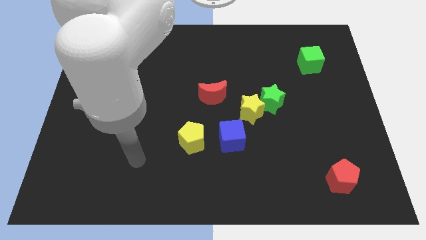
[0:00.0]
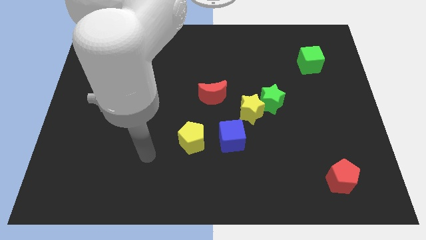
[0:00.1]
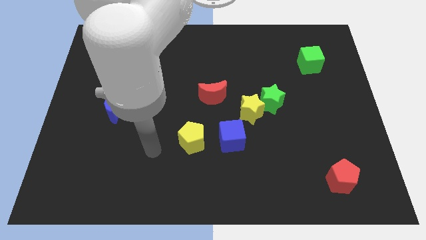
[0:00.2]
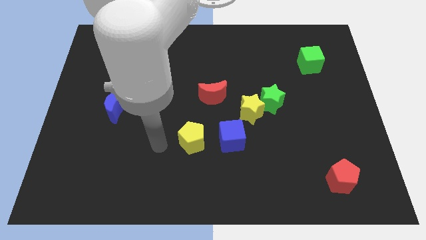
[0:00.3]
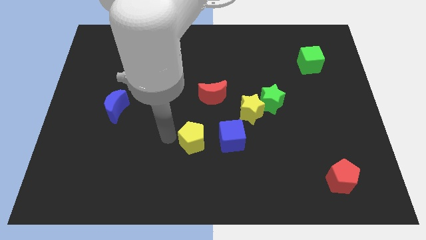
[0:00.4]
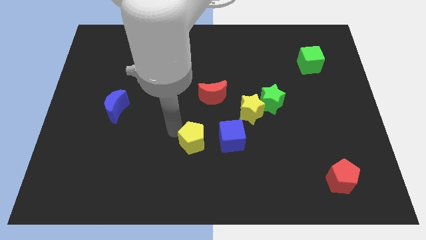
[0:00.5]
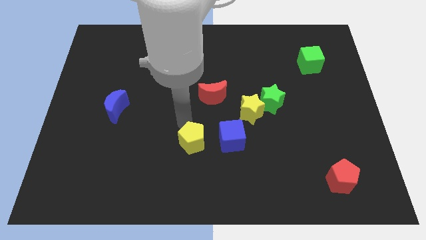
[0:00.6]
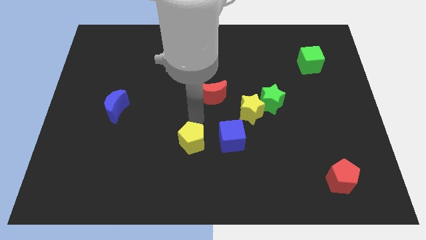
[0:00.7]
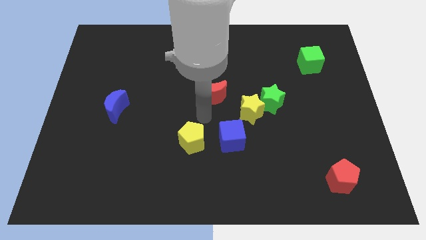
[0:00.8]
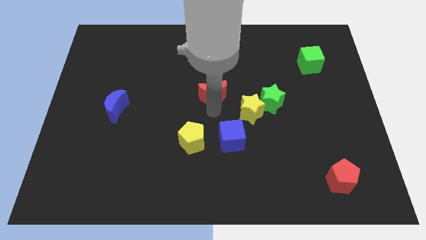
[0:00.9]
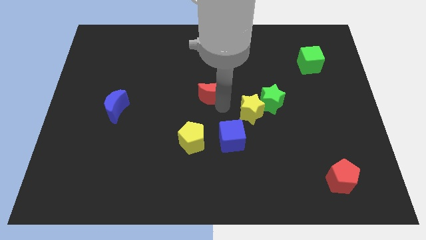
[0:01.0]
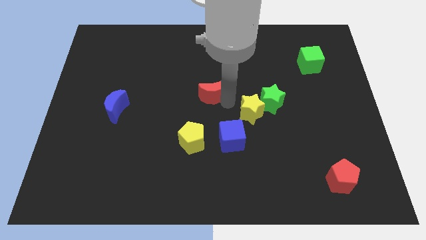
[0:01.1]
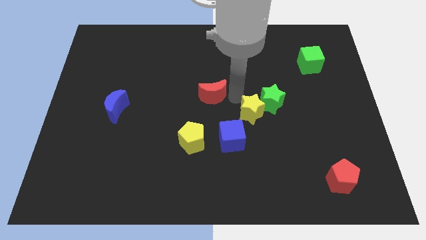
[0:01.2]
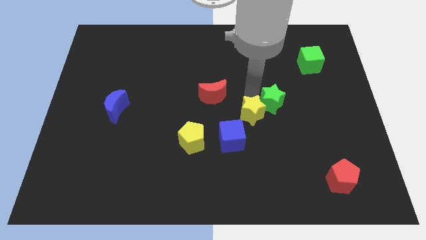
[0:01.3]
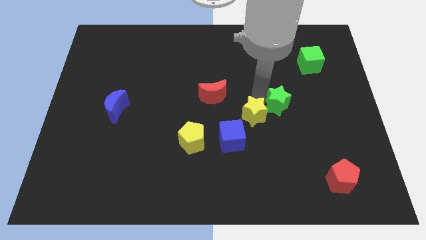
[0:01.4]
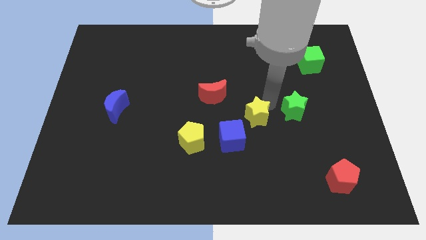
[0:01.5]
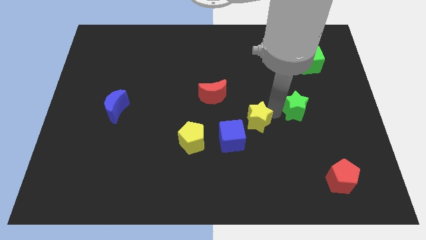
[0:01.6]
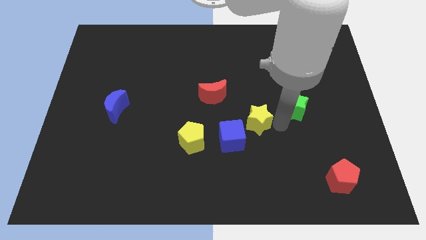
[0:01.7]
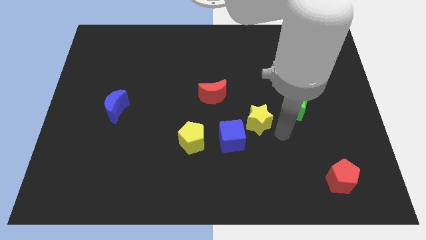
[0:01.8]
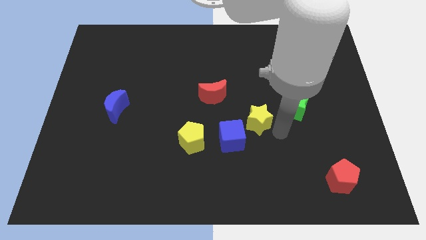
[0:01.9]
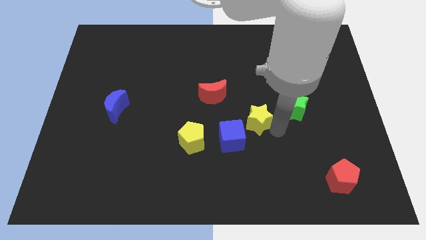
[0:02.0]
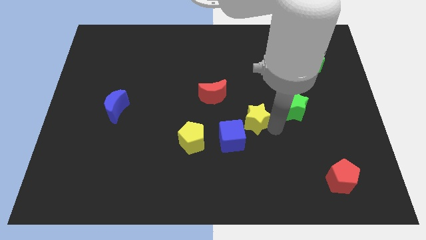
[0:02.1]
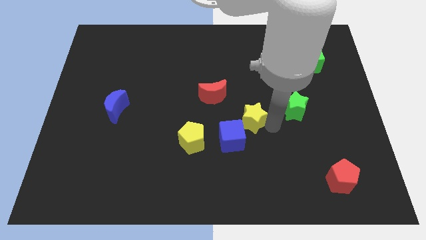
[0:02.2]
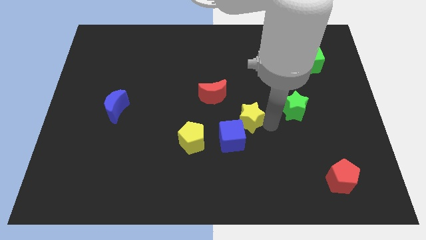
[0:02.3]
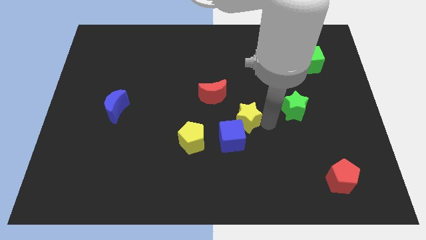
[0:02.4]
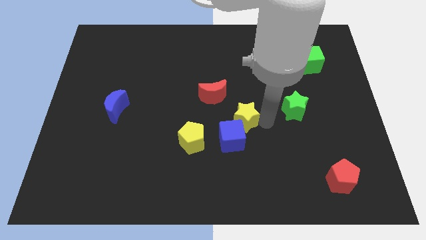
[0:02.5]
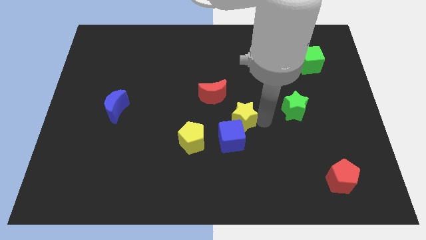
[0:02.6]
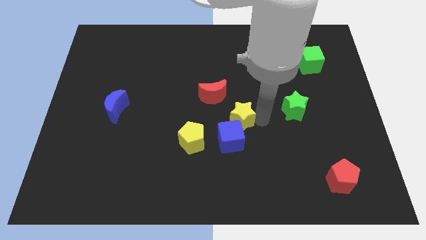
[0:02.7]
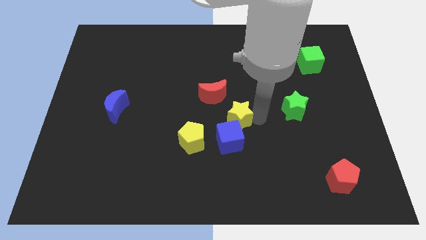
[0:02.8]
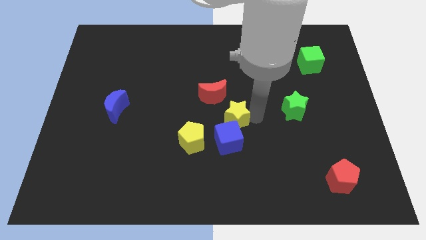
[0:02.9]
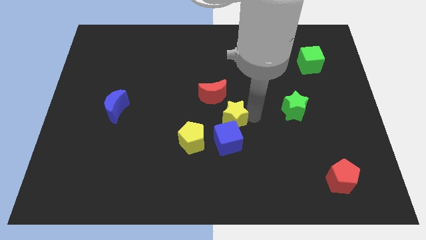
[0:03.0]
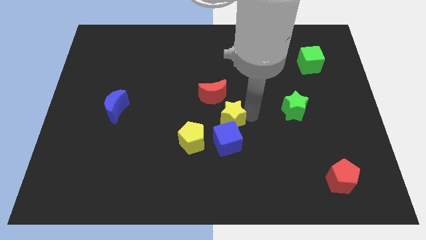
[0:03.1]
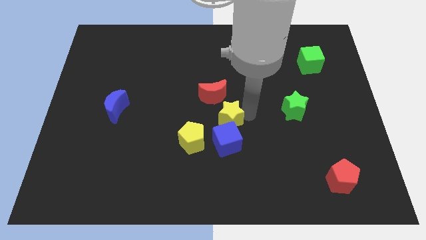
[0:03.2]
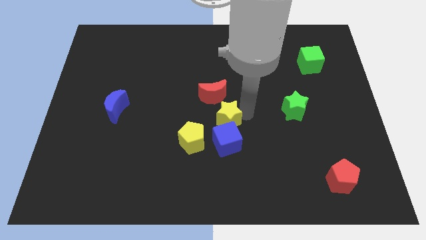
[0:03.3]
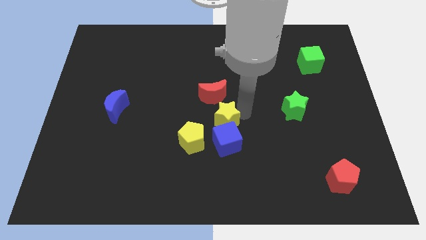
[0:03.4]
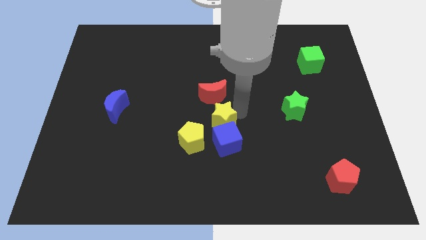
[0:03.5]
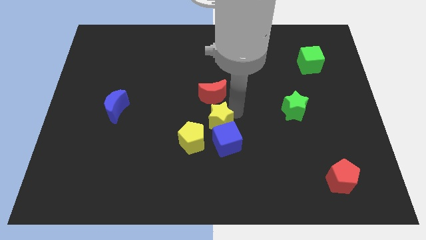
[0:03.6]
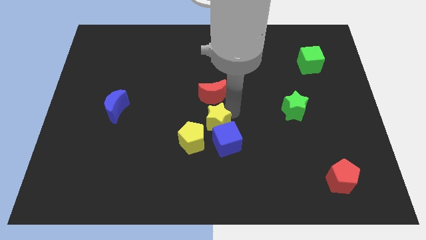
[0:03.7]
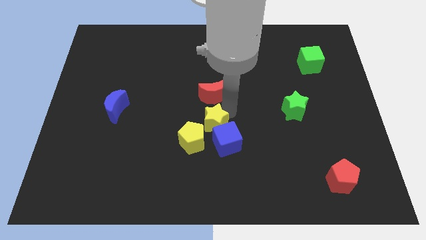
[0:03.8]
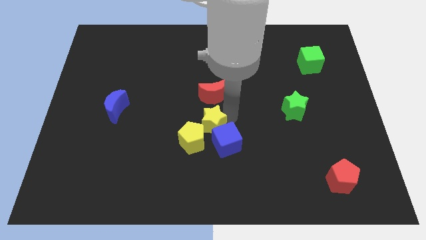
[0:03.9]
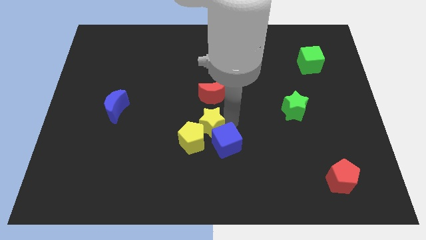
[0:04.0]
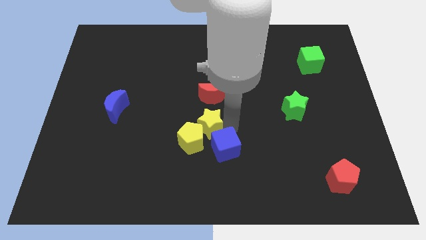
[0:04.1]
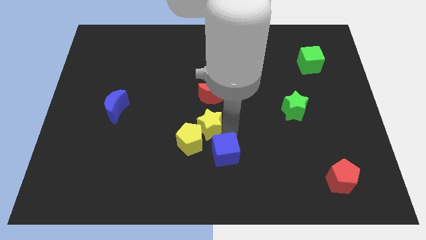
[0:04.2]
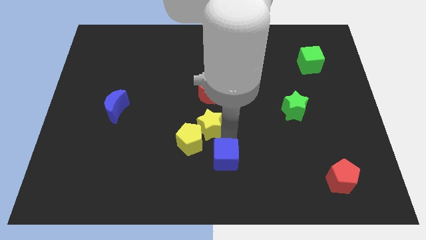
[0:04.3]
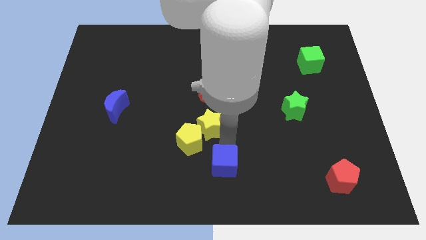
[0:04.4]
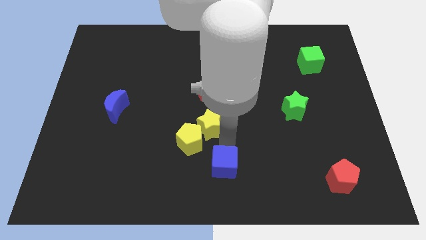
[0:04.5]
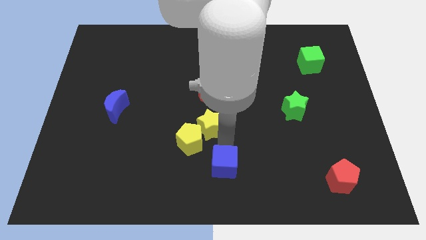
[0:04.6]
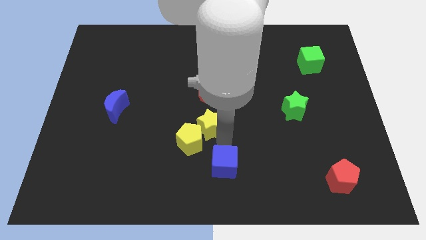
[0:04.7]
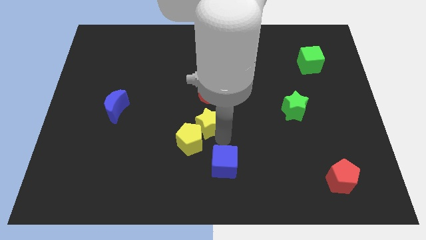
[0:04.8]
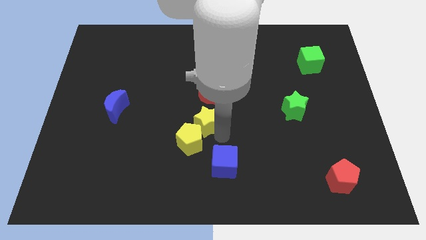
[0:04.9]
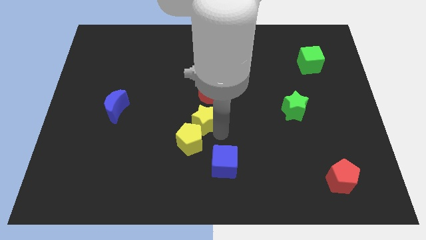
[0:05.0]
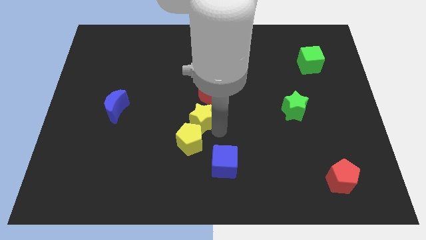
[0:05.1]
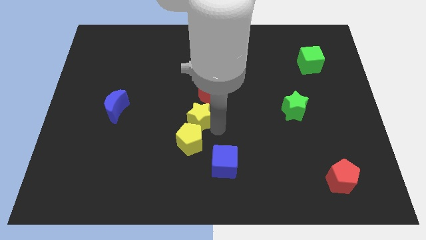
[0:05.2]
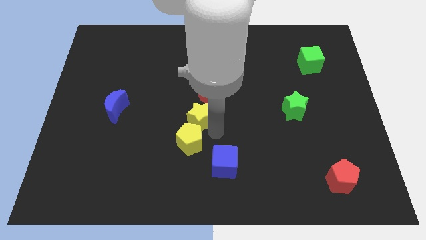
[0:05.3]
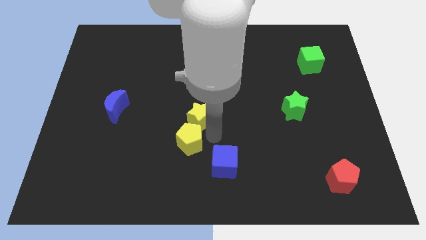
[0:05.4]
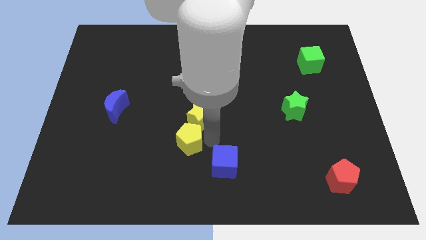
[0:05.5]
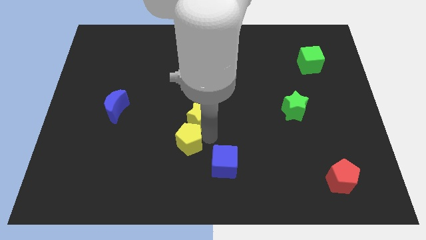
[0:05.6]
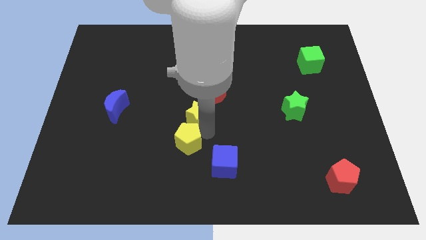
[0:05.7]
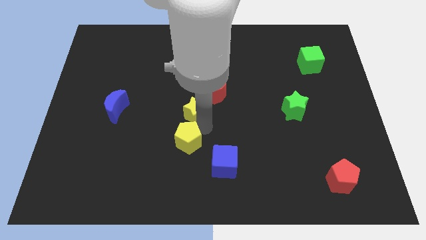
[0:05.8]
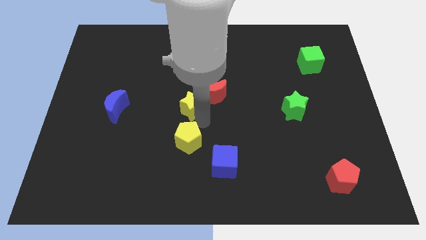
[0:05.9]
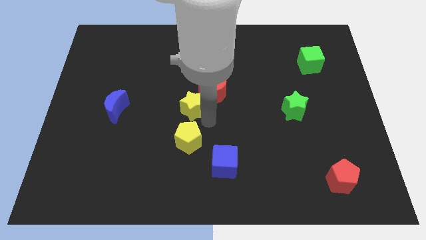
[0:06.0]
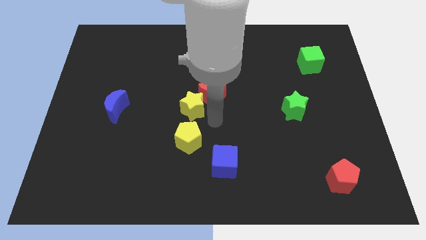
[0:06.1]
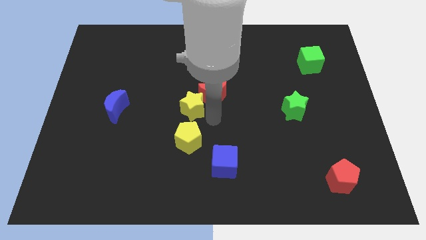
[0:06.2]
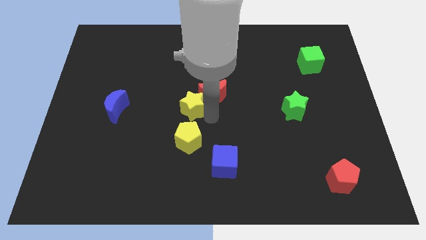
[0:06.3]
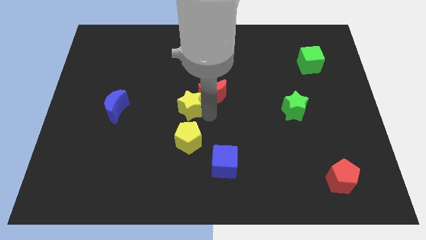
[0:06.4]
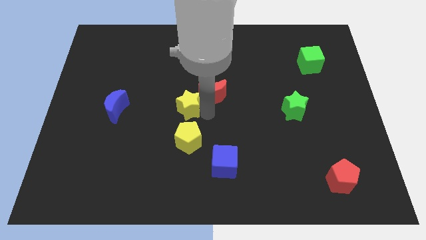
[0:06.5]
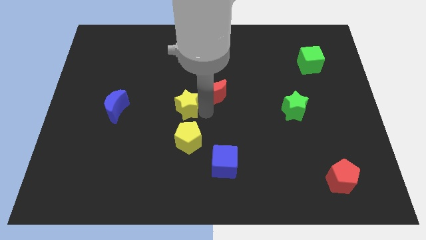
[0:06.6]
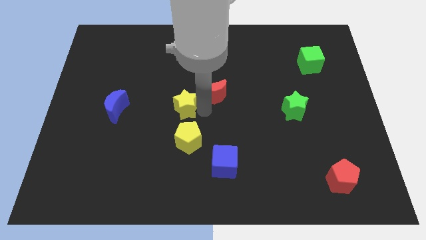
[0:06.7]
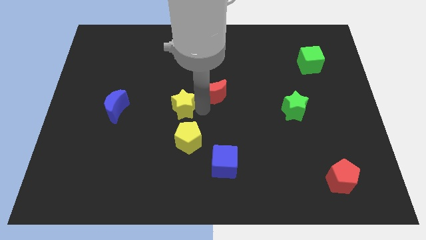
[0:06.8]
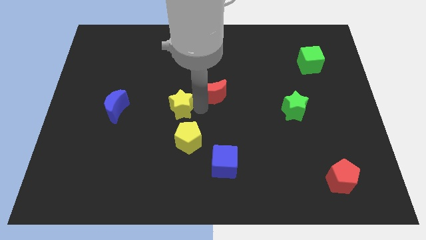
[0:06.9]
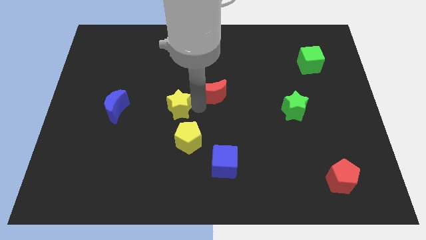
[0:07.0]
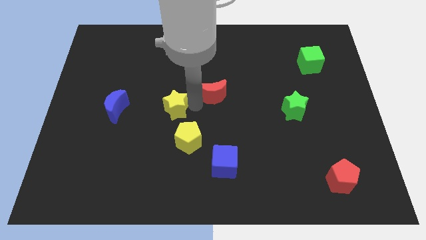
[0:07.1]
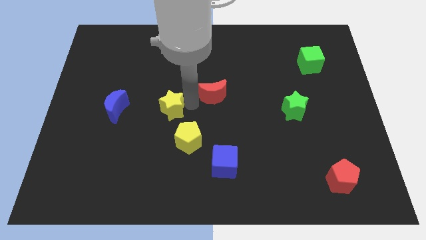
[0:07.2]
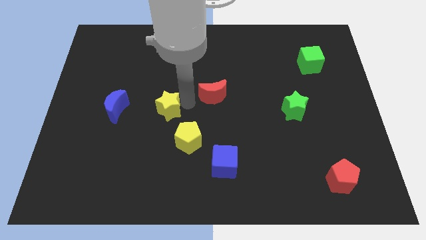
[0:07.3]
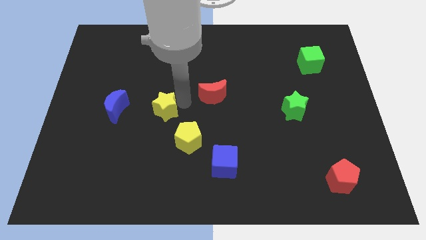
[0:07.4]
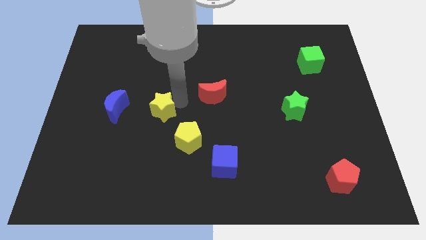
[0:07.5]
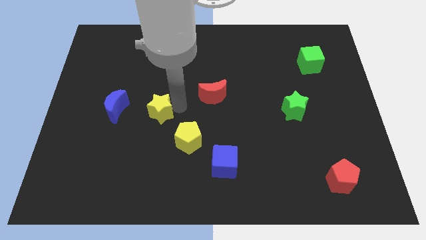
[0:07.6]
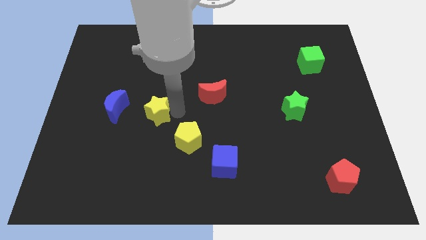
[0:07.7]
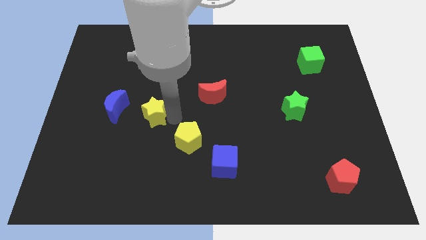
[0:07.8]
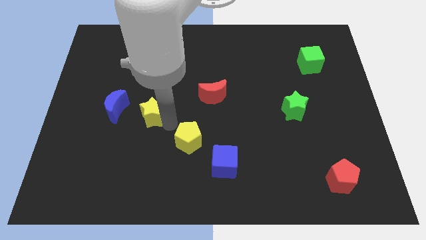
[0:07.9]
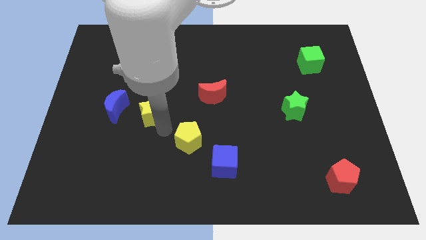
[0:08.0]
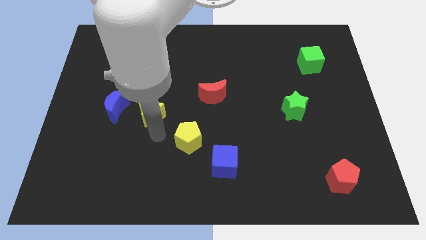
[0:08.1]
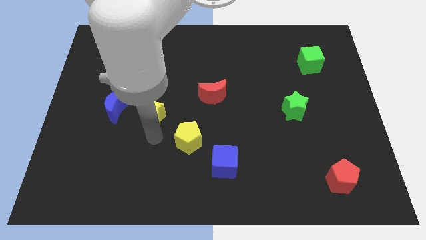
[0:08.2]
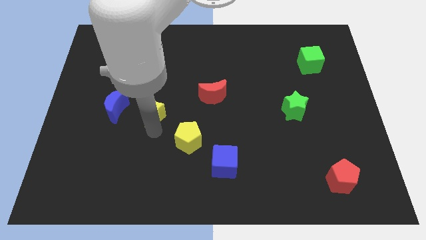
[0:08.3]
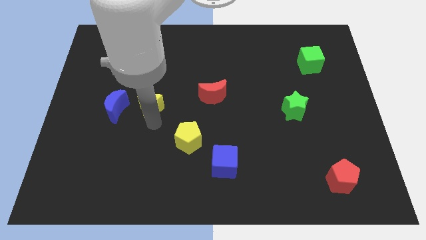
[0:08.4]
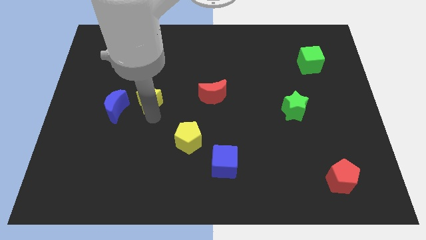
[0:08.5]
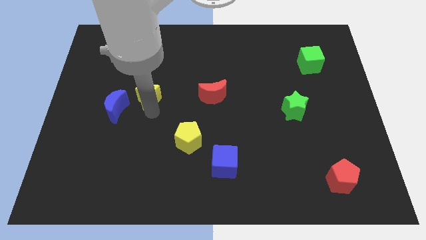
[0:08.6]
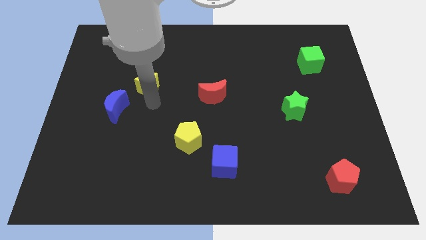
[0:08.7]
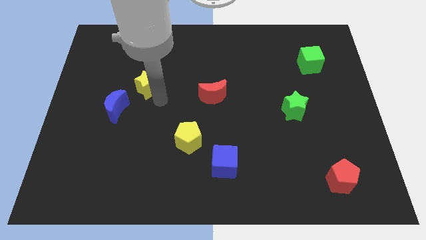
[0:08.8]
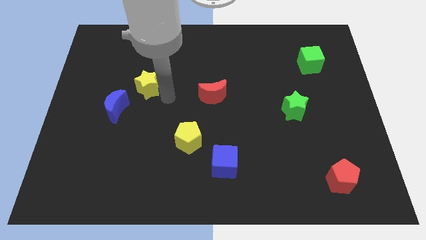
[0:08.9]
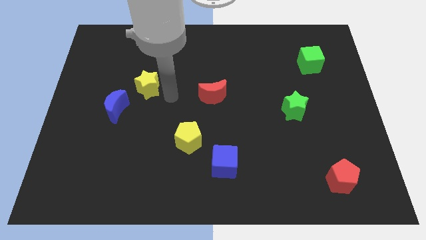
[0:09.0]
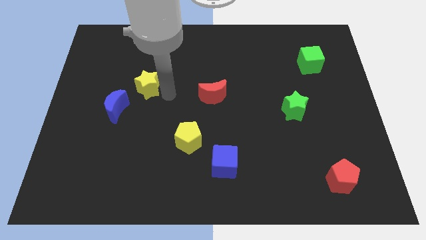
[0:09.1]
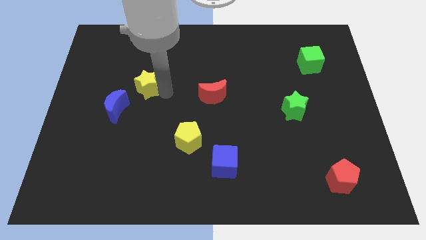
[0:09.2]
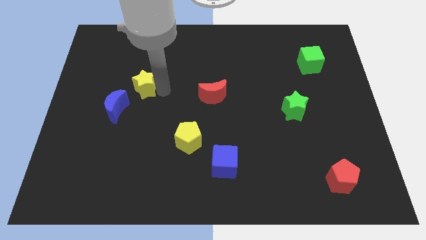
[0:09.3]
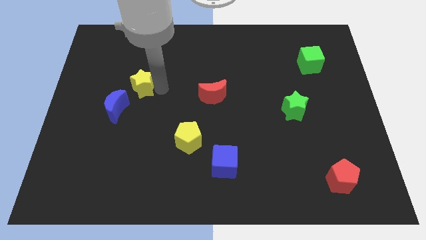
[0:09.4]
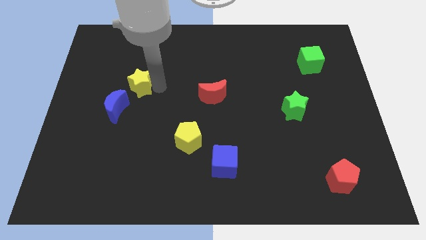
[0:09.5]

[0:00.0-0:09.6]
push the yellow star to the top of the blue moon
